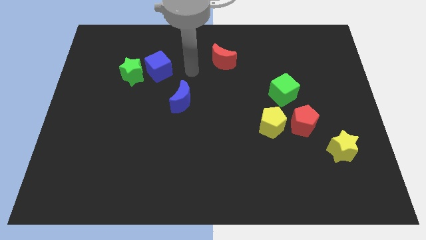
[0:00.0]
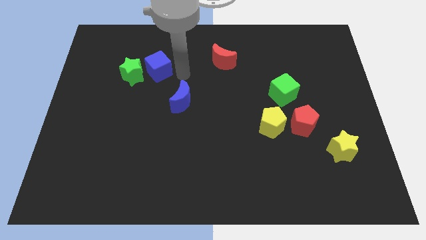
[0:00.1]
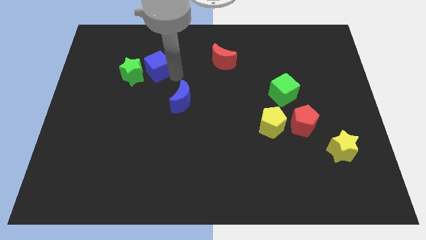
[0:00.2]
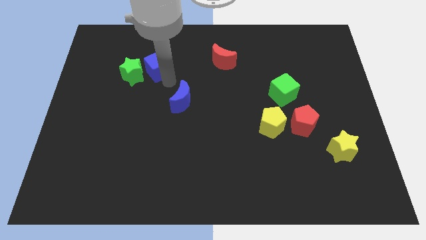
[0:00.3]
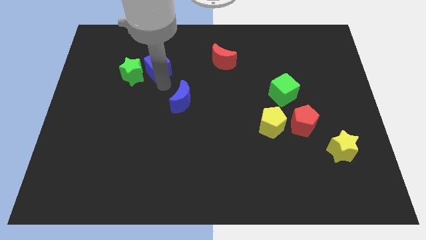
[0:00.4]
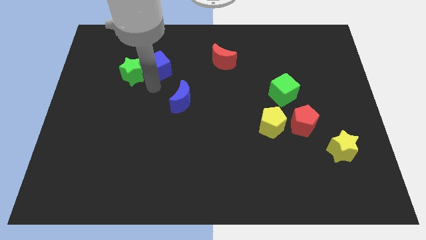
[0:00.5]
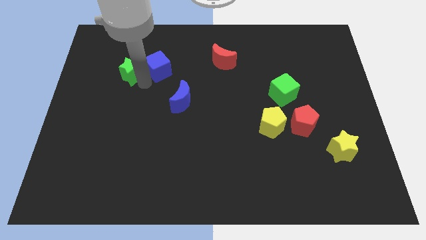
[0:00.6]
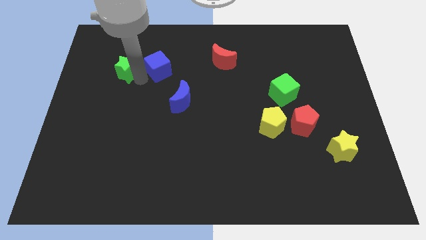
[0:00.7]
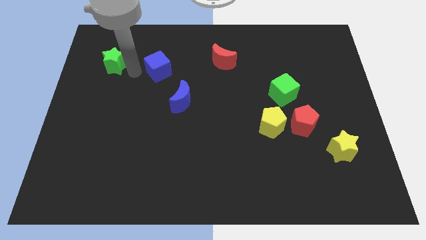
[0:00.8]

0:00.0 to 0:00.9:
move the blue cube away from the green star

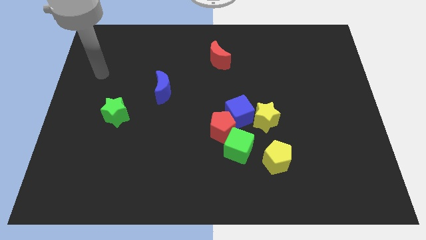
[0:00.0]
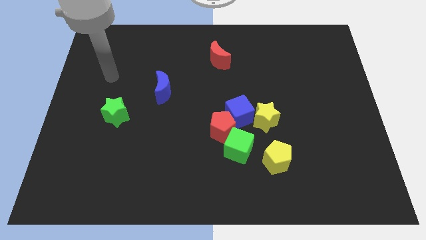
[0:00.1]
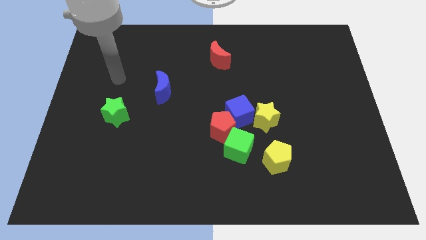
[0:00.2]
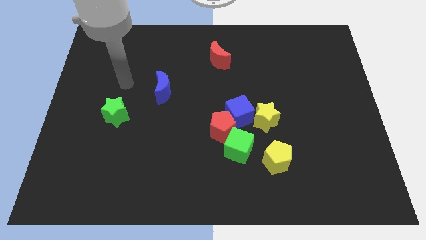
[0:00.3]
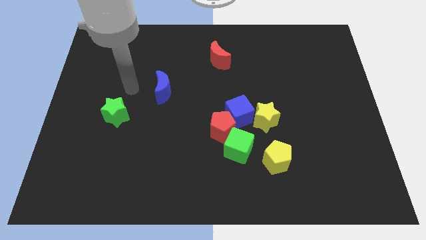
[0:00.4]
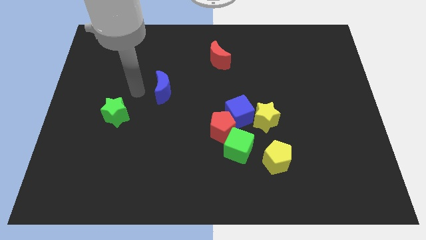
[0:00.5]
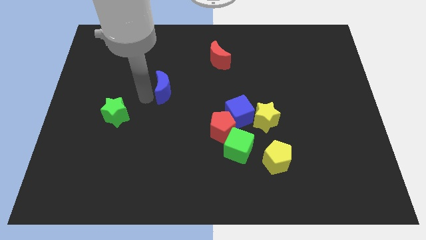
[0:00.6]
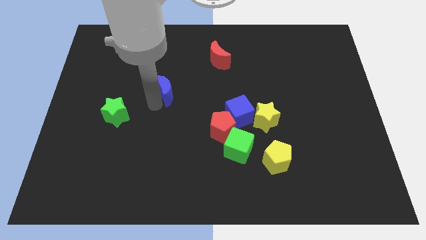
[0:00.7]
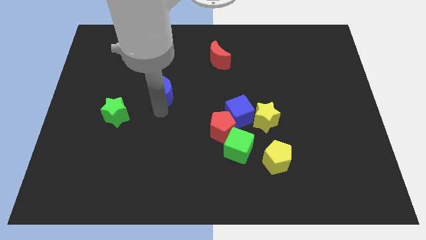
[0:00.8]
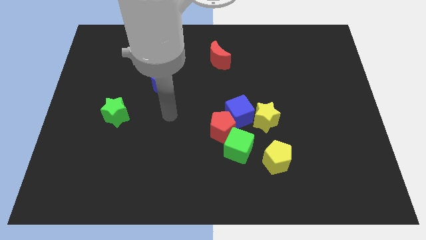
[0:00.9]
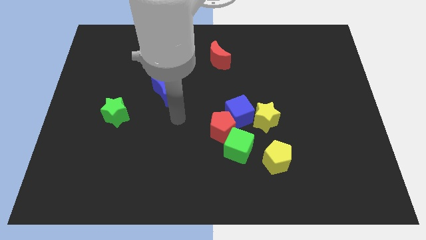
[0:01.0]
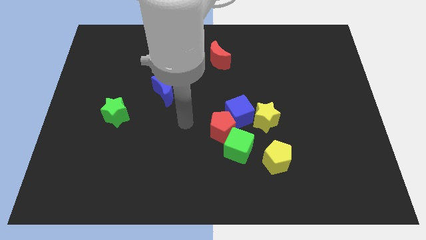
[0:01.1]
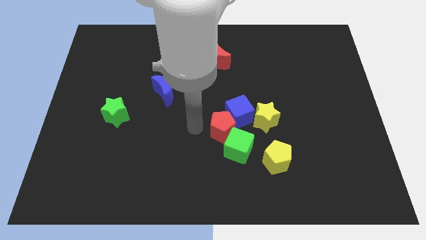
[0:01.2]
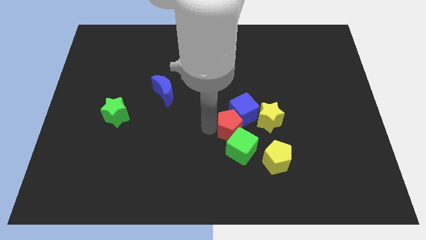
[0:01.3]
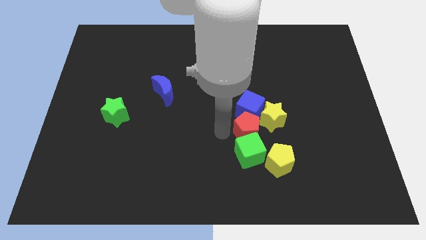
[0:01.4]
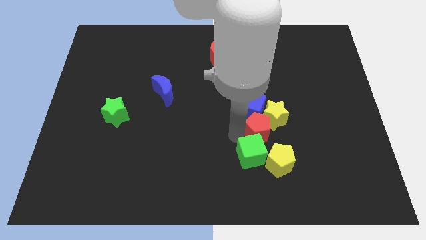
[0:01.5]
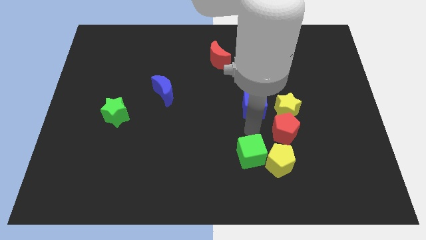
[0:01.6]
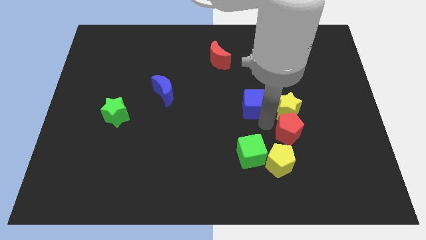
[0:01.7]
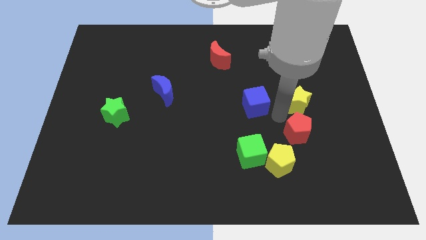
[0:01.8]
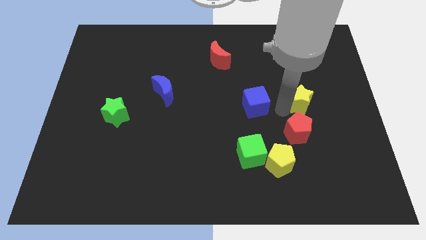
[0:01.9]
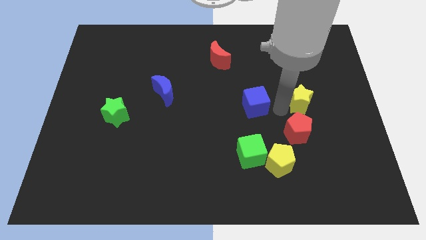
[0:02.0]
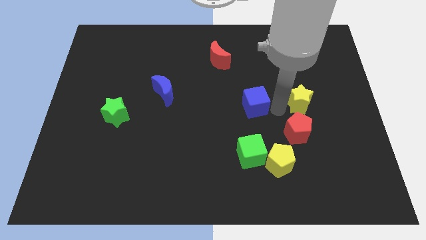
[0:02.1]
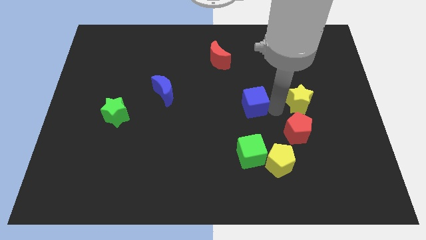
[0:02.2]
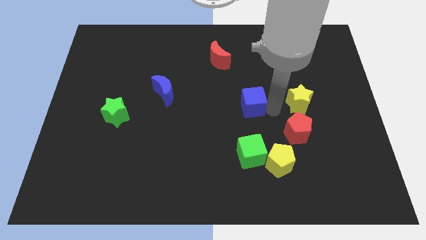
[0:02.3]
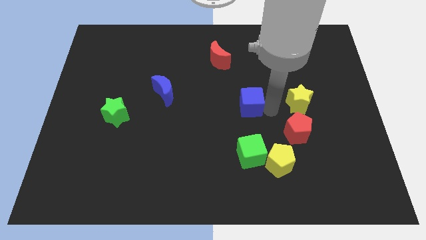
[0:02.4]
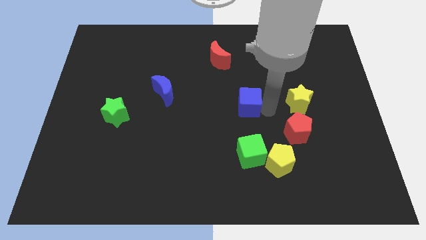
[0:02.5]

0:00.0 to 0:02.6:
separate the blue cube from the group of blocks

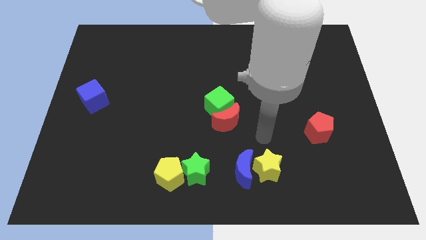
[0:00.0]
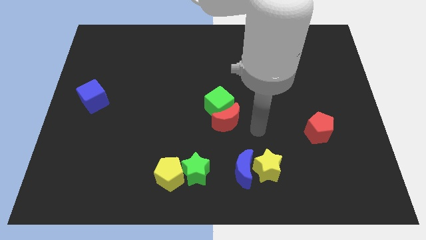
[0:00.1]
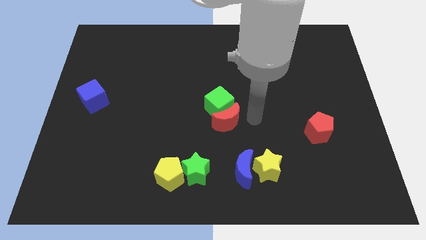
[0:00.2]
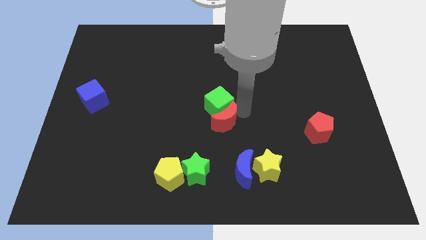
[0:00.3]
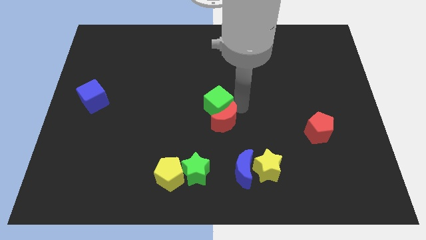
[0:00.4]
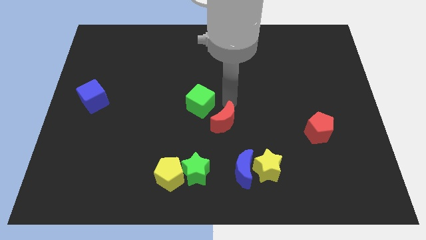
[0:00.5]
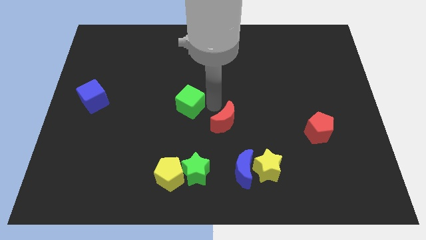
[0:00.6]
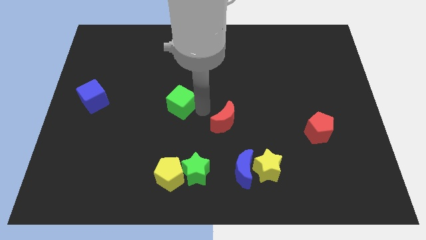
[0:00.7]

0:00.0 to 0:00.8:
pull the red moon apart from the green cube

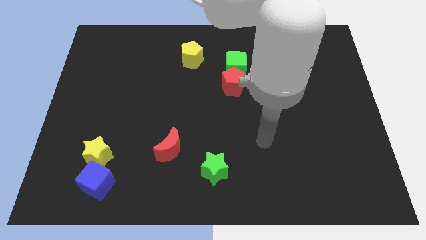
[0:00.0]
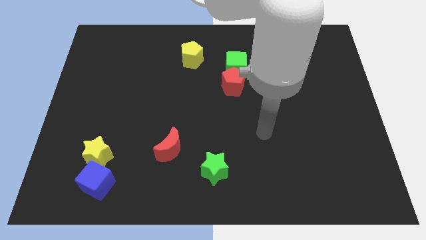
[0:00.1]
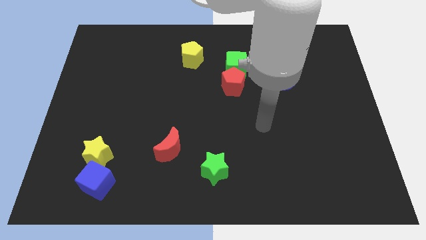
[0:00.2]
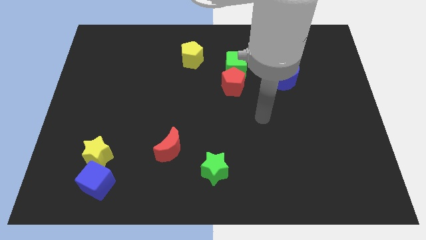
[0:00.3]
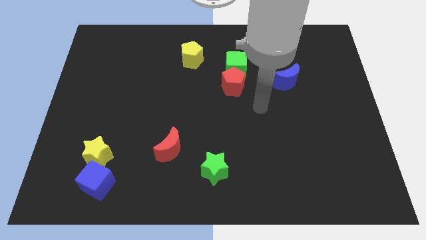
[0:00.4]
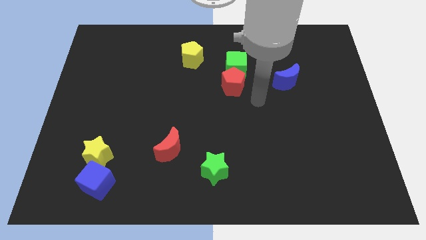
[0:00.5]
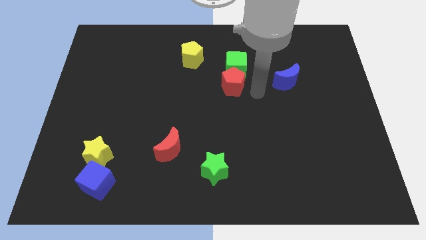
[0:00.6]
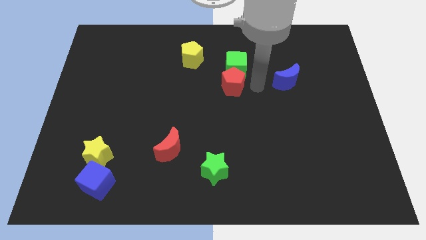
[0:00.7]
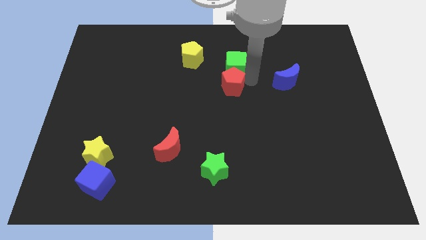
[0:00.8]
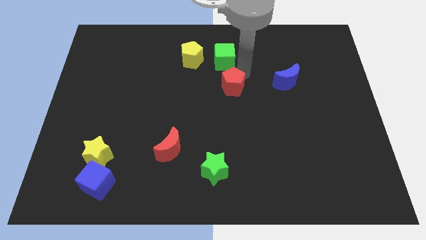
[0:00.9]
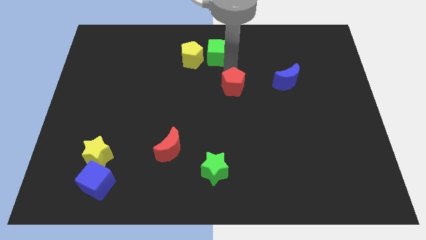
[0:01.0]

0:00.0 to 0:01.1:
pull the red pentagon apart from the green cube

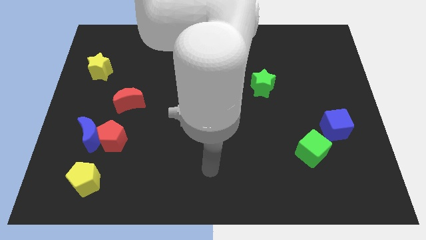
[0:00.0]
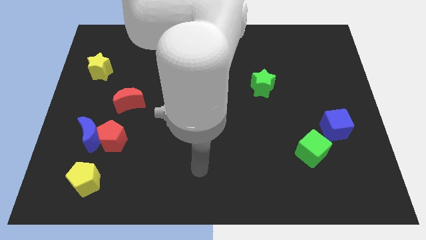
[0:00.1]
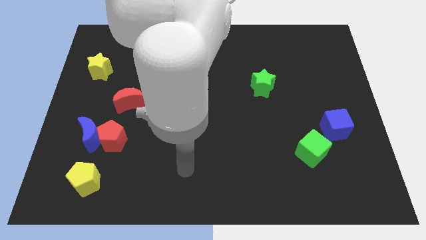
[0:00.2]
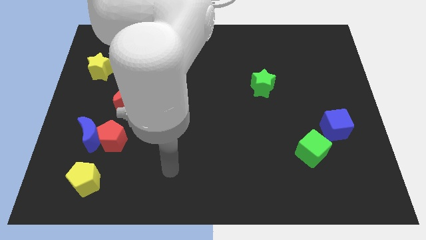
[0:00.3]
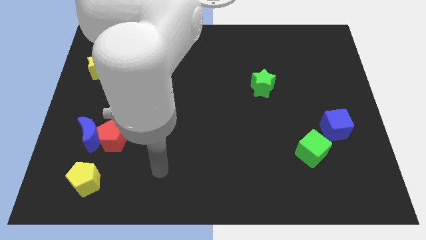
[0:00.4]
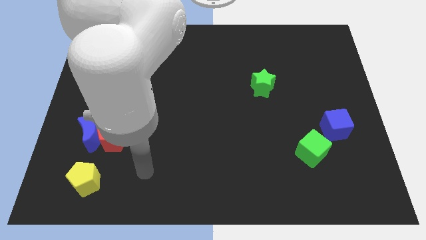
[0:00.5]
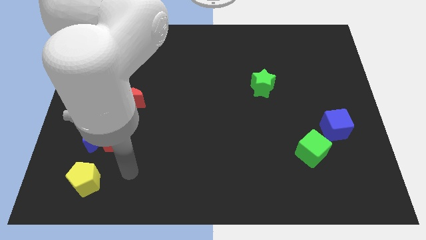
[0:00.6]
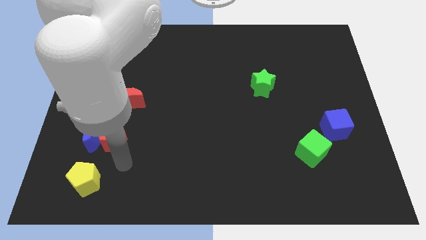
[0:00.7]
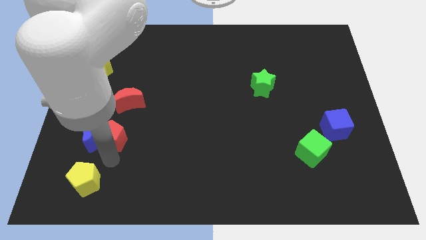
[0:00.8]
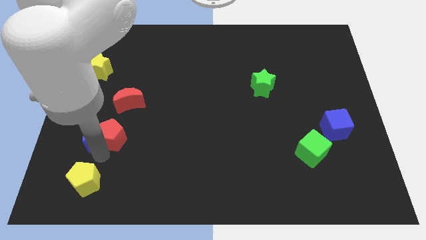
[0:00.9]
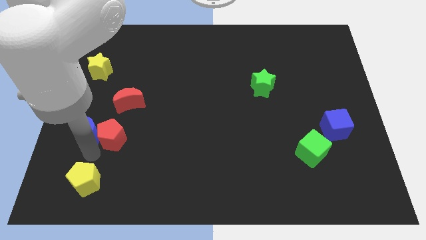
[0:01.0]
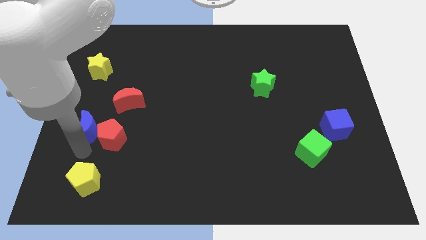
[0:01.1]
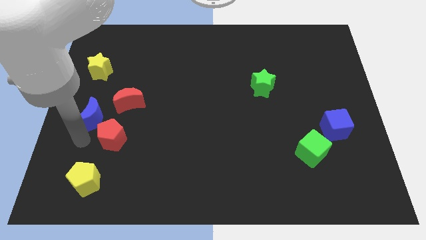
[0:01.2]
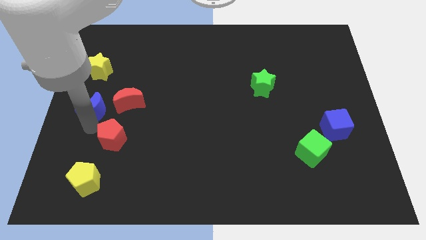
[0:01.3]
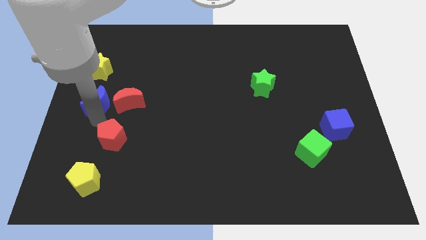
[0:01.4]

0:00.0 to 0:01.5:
pull the red pentagon apart from the blue moon

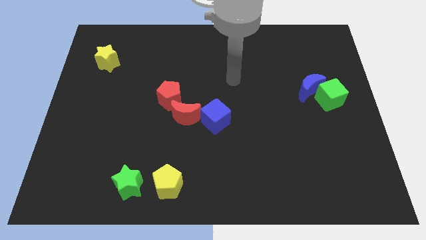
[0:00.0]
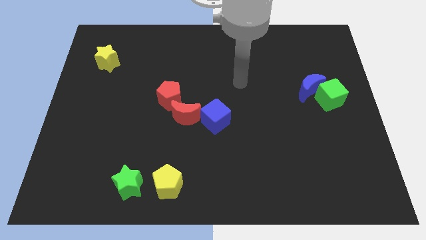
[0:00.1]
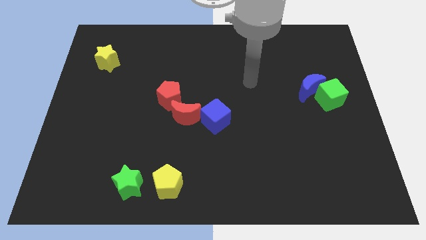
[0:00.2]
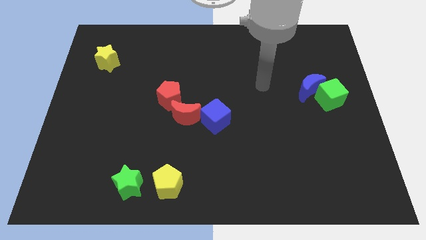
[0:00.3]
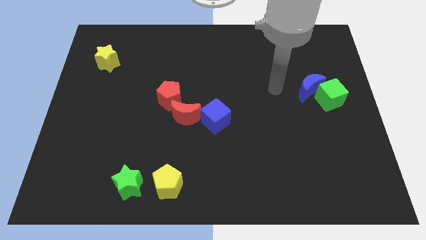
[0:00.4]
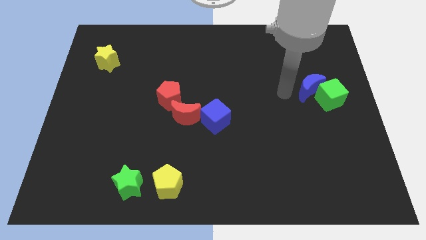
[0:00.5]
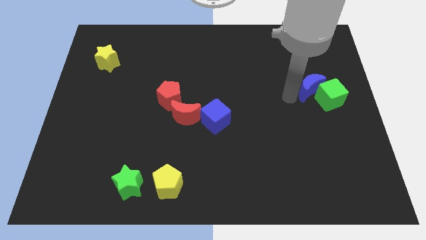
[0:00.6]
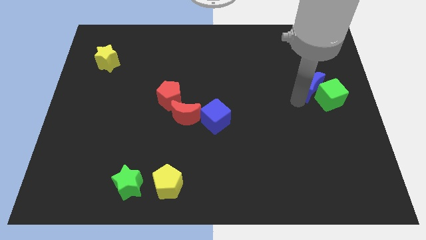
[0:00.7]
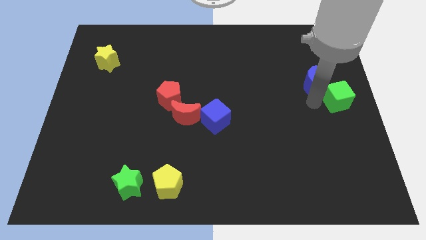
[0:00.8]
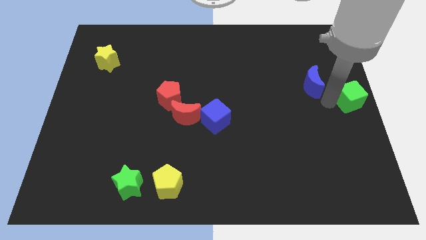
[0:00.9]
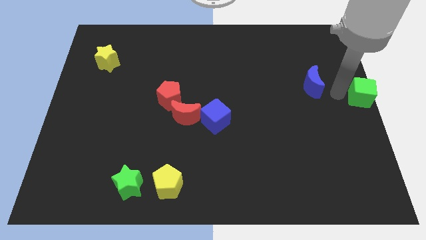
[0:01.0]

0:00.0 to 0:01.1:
move the blue moon away from the green cube

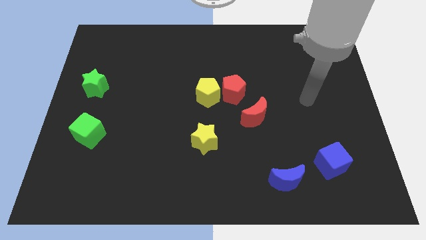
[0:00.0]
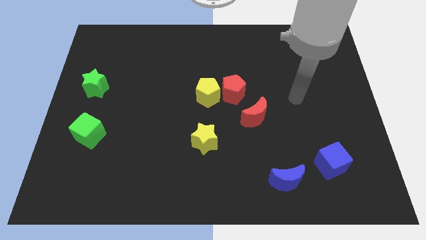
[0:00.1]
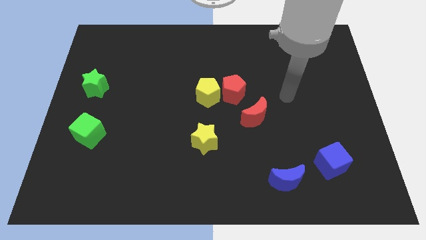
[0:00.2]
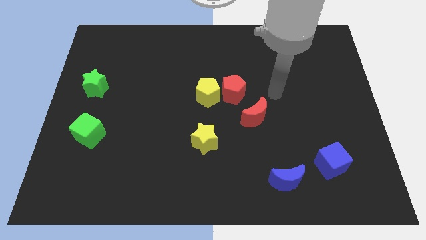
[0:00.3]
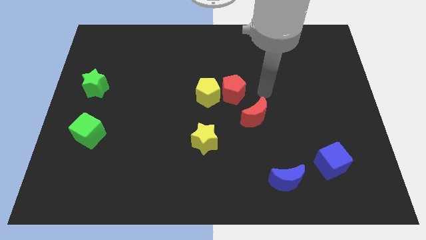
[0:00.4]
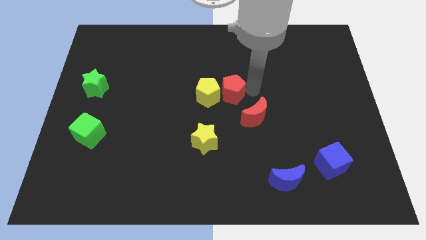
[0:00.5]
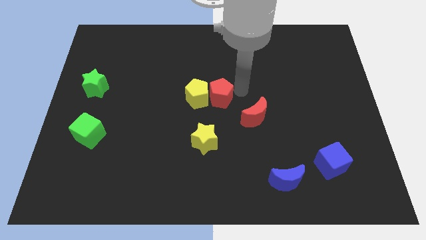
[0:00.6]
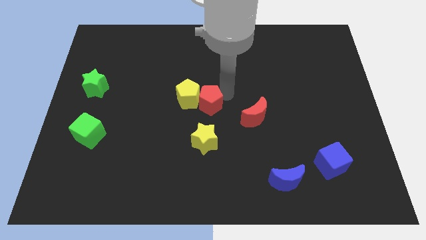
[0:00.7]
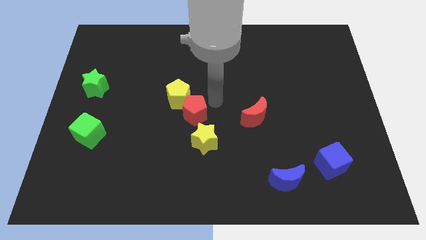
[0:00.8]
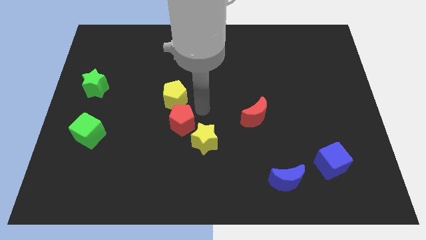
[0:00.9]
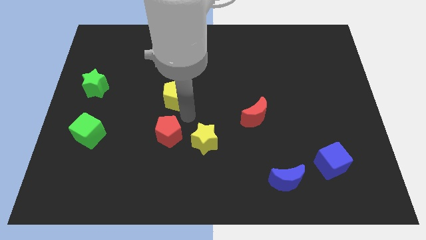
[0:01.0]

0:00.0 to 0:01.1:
separate the yellow pentagon from the red pentagon

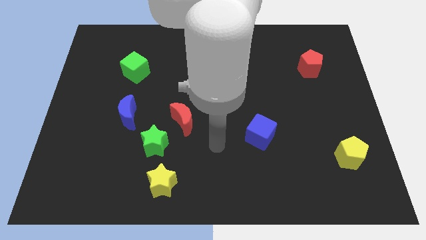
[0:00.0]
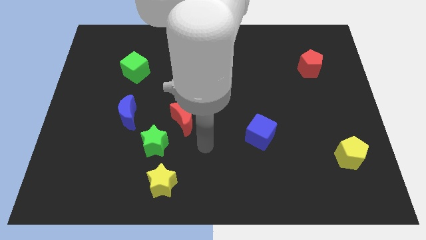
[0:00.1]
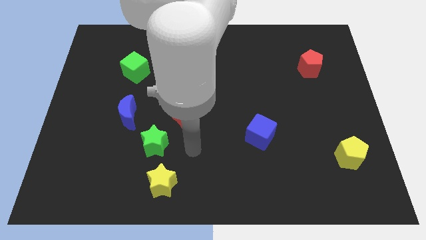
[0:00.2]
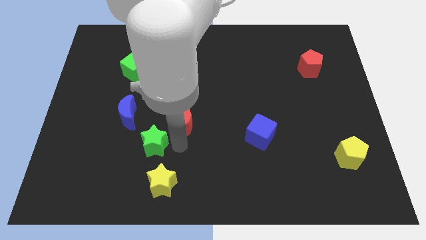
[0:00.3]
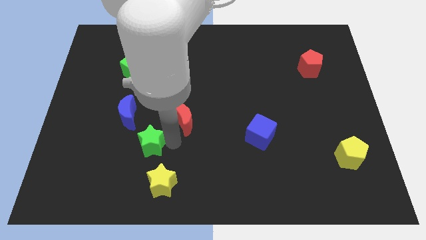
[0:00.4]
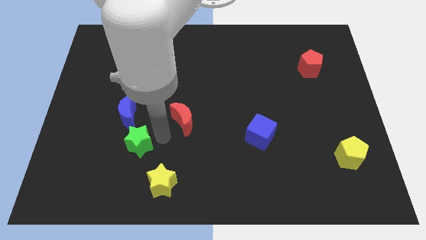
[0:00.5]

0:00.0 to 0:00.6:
move the red moon away from the green star
